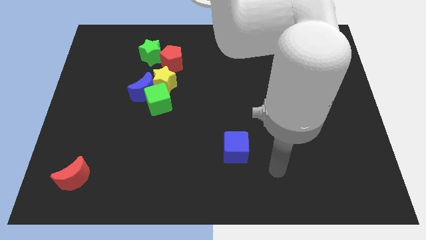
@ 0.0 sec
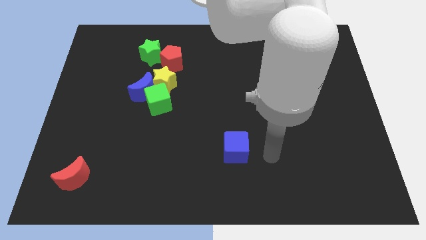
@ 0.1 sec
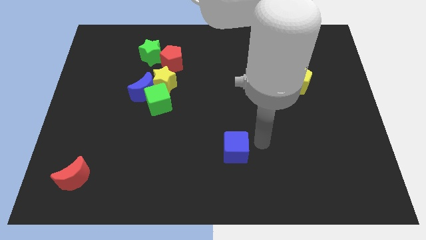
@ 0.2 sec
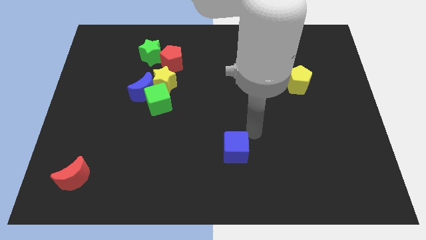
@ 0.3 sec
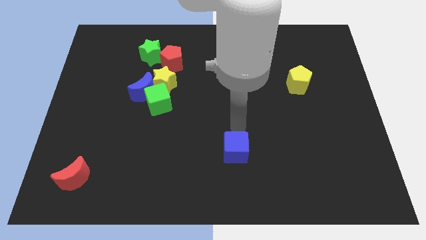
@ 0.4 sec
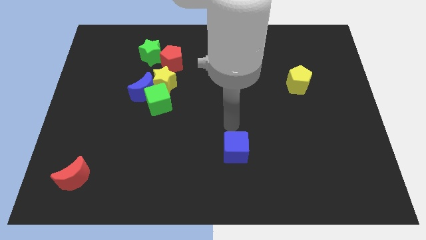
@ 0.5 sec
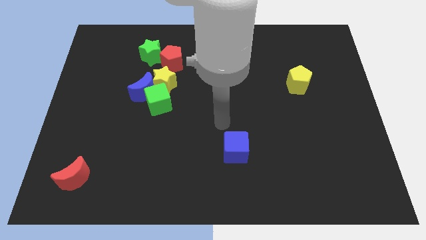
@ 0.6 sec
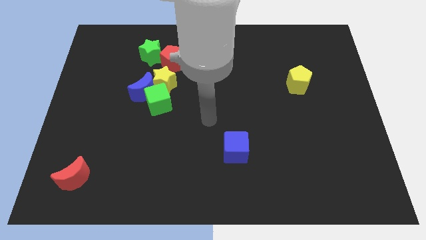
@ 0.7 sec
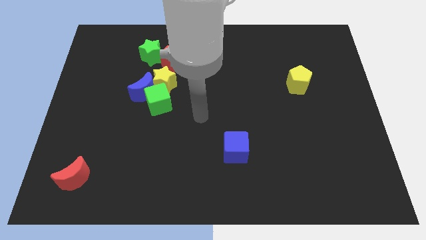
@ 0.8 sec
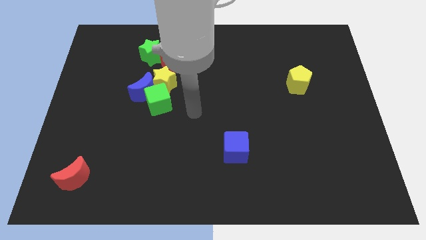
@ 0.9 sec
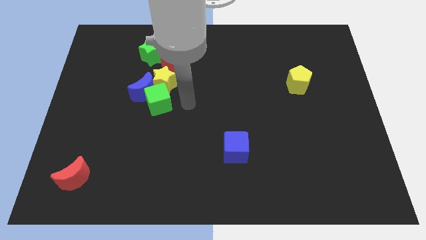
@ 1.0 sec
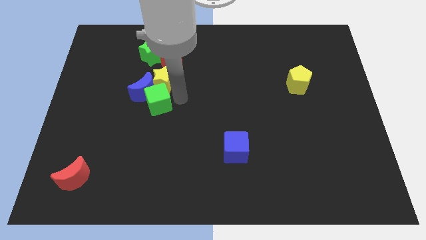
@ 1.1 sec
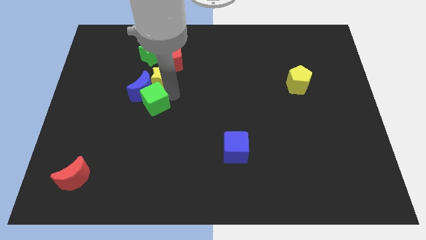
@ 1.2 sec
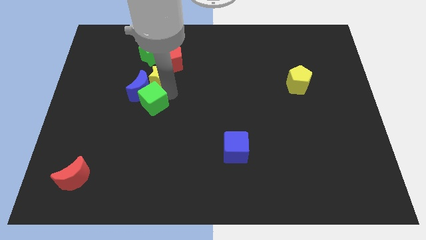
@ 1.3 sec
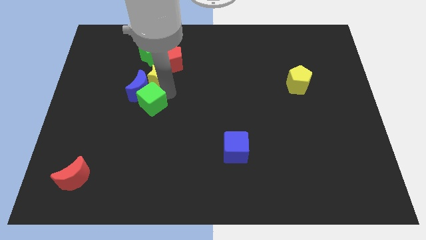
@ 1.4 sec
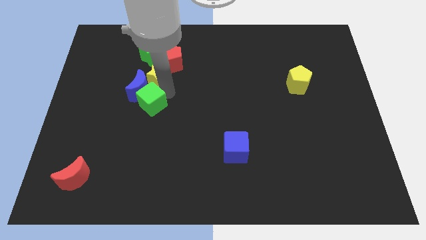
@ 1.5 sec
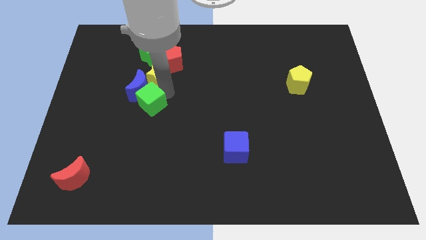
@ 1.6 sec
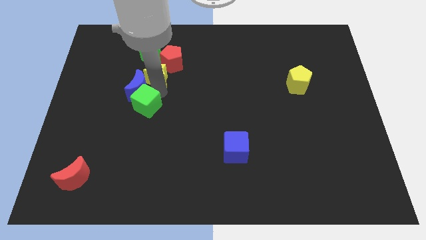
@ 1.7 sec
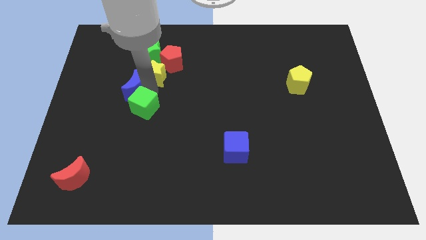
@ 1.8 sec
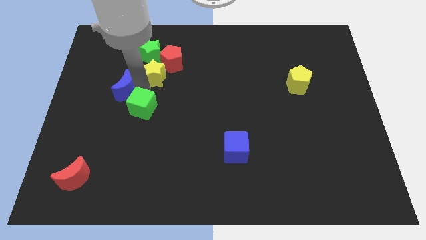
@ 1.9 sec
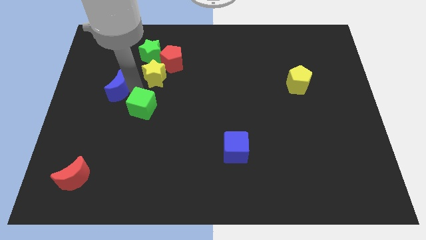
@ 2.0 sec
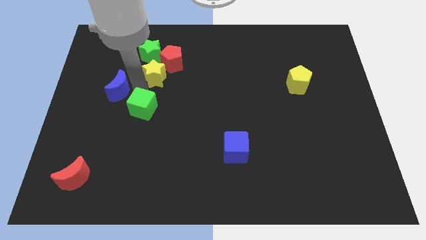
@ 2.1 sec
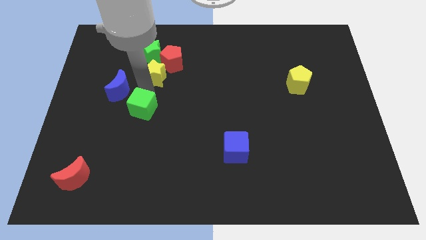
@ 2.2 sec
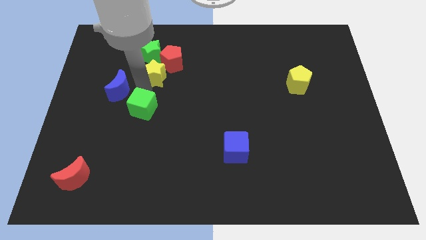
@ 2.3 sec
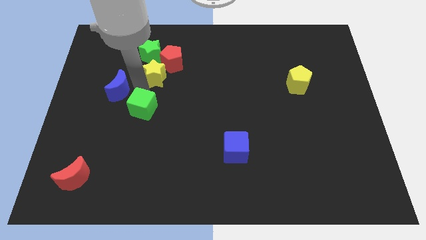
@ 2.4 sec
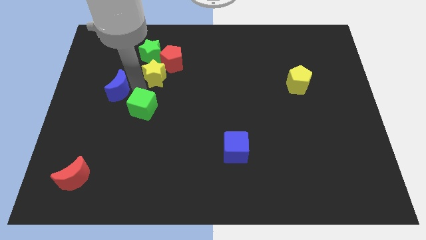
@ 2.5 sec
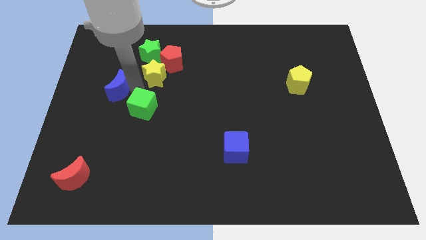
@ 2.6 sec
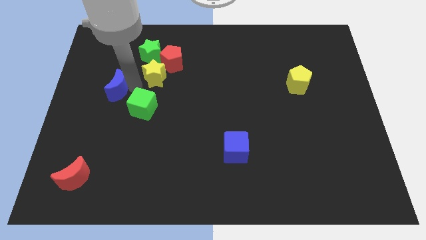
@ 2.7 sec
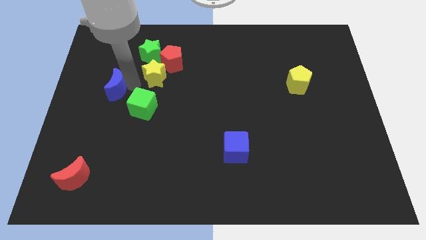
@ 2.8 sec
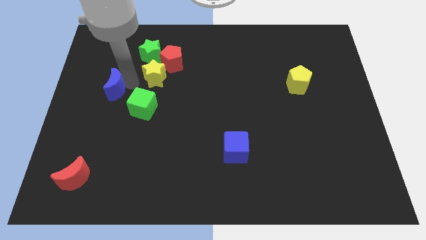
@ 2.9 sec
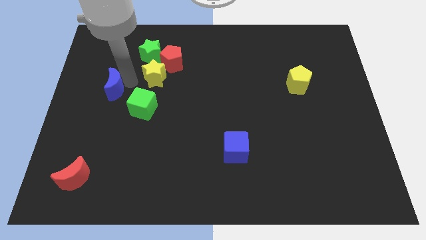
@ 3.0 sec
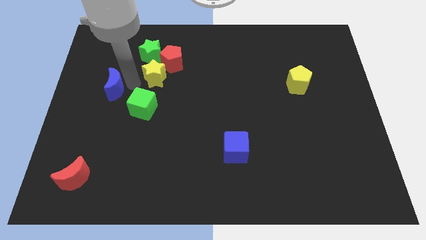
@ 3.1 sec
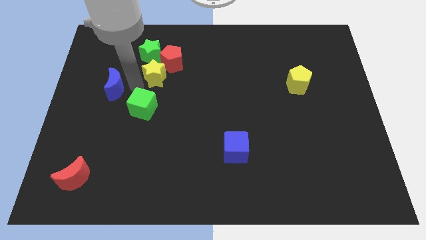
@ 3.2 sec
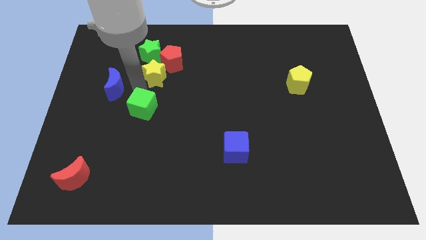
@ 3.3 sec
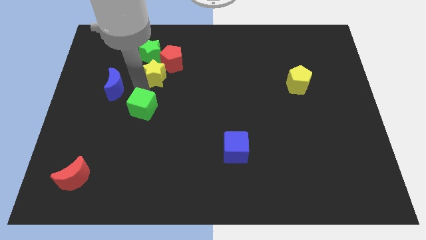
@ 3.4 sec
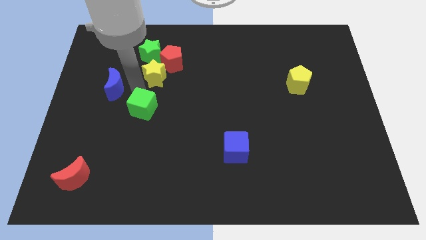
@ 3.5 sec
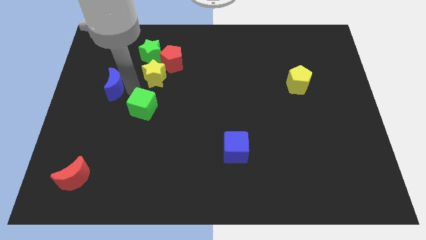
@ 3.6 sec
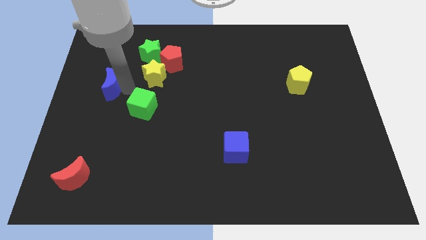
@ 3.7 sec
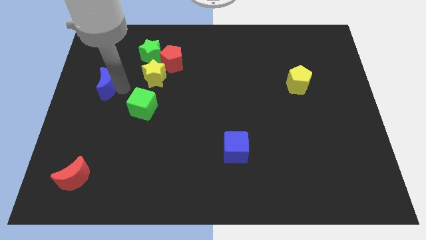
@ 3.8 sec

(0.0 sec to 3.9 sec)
pull the blue moon apart from the green cube and yellow star

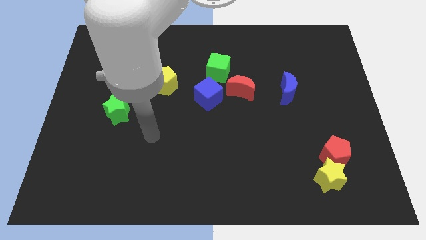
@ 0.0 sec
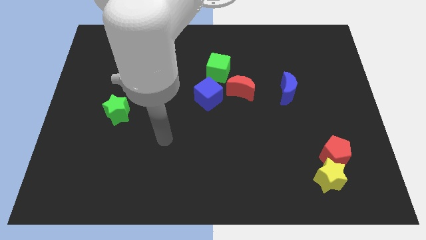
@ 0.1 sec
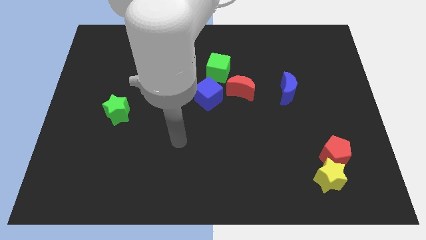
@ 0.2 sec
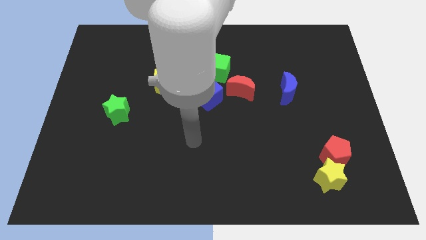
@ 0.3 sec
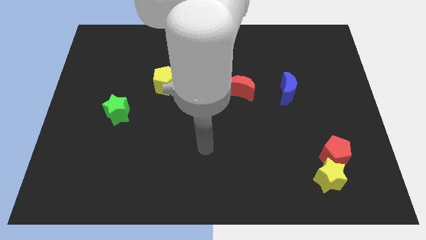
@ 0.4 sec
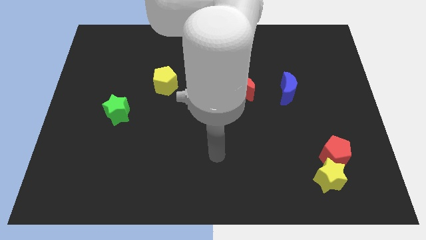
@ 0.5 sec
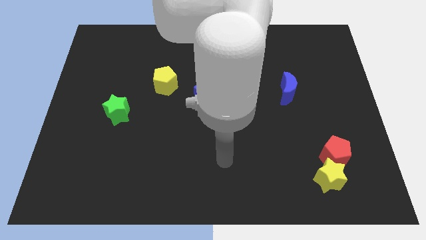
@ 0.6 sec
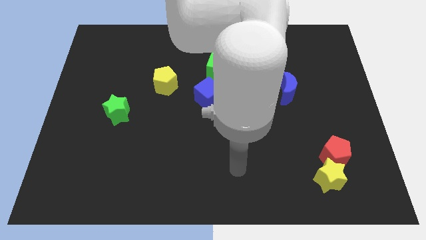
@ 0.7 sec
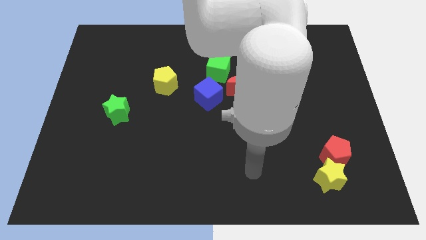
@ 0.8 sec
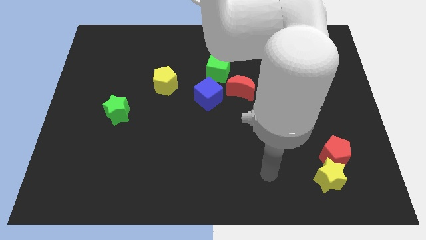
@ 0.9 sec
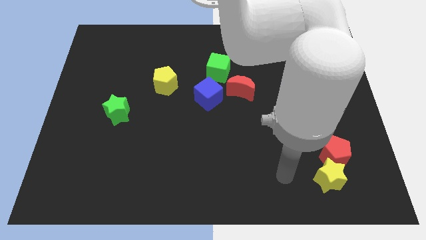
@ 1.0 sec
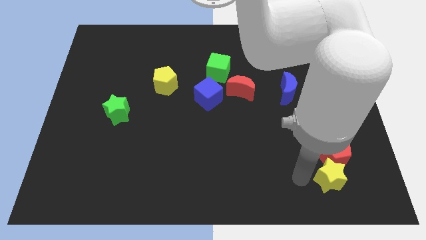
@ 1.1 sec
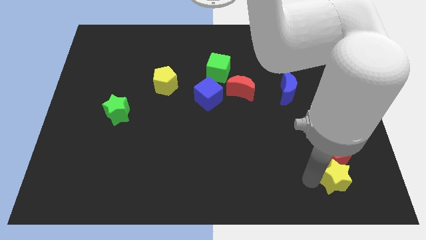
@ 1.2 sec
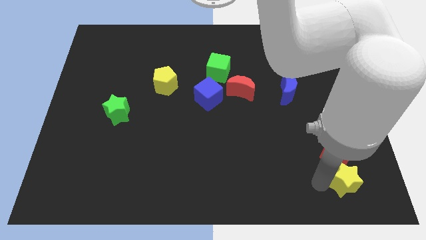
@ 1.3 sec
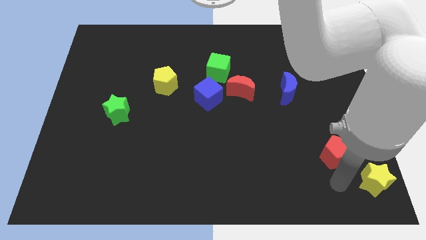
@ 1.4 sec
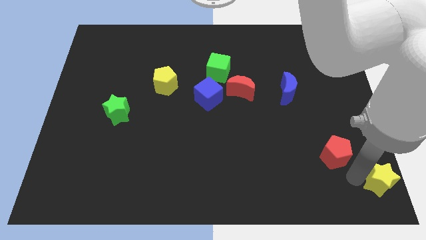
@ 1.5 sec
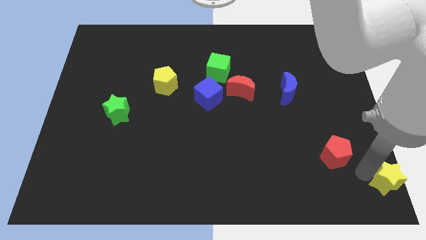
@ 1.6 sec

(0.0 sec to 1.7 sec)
separate the red pentagon from the yellow star

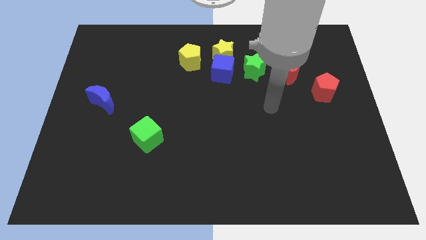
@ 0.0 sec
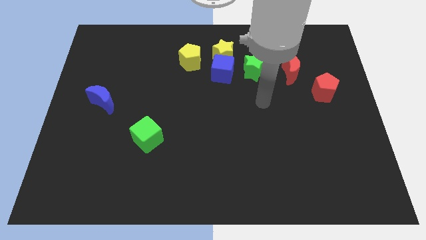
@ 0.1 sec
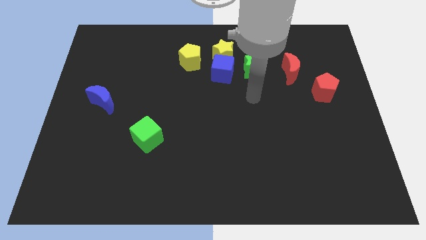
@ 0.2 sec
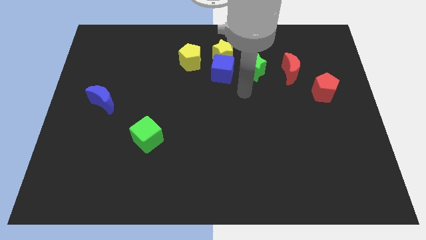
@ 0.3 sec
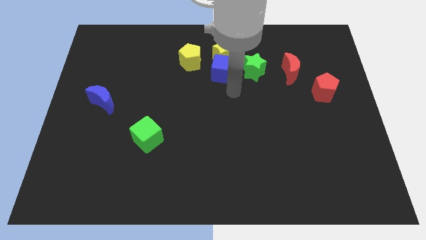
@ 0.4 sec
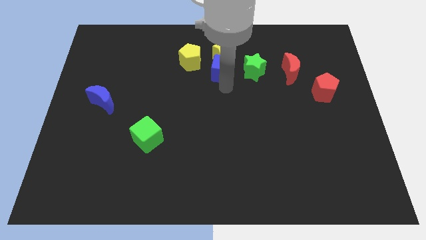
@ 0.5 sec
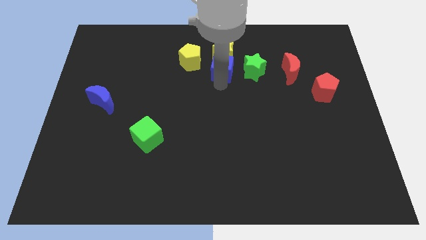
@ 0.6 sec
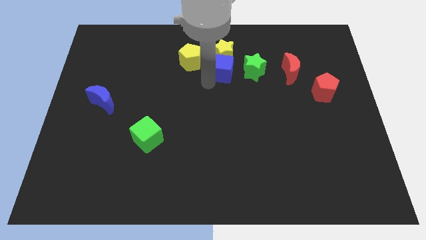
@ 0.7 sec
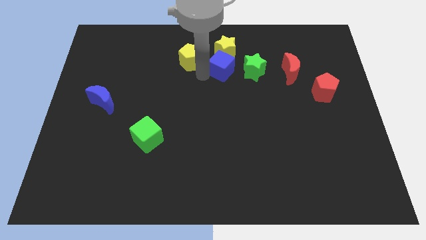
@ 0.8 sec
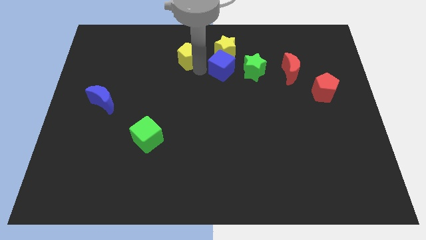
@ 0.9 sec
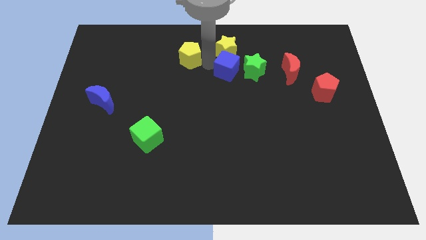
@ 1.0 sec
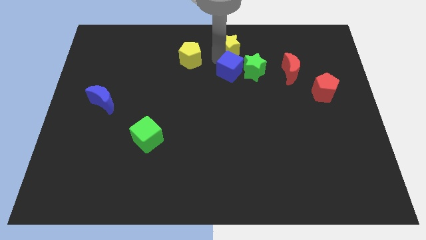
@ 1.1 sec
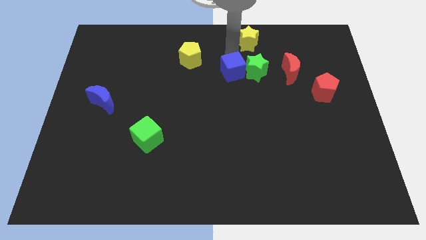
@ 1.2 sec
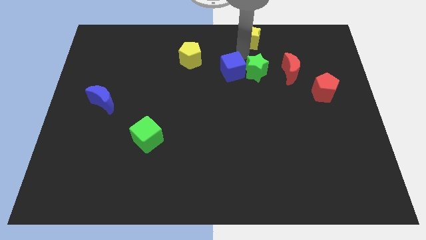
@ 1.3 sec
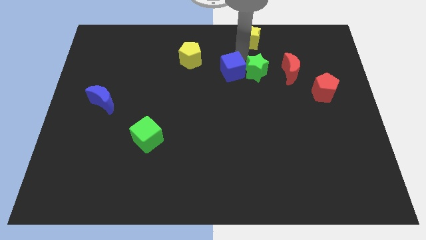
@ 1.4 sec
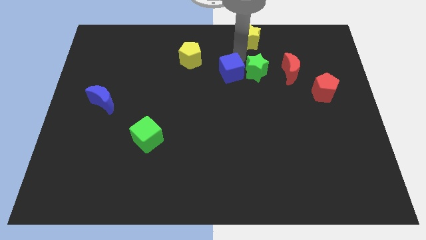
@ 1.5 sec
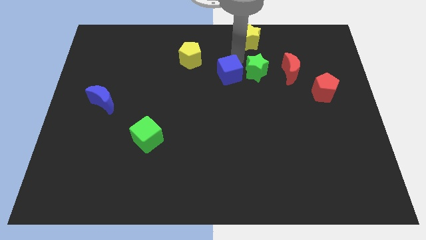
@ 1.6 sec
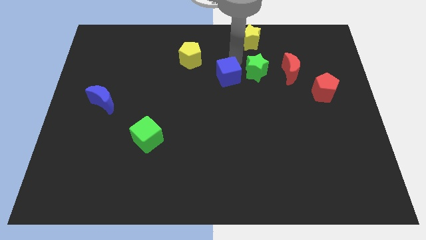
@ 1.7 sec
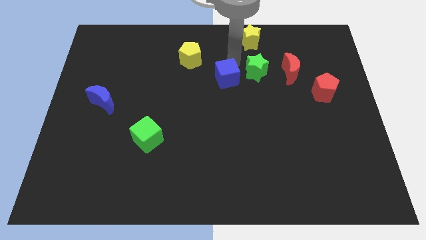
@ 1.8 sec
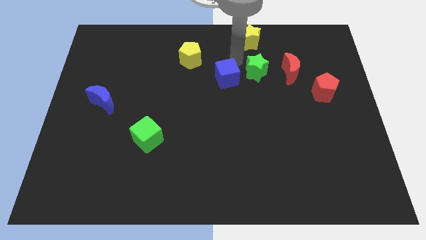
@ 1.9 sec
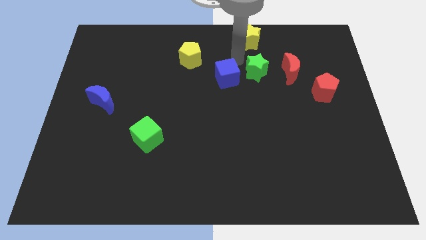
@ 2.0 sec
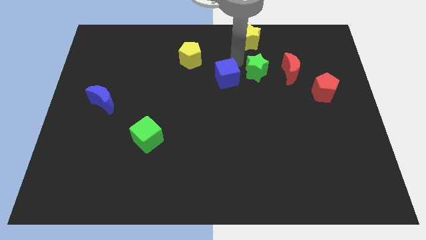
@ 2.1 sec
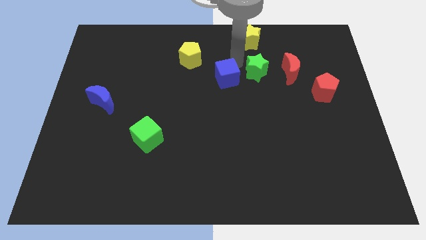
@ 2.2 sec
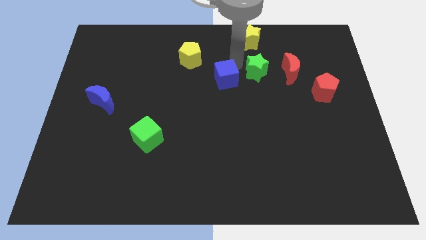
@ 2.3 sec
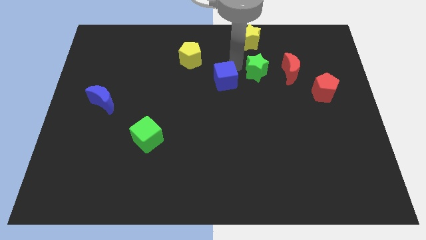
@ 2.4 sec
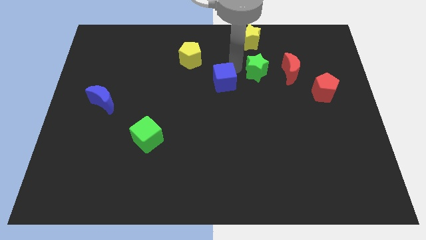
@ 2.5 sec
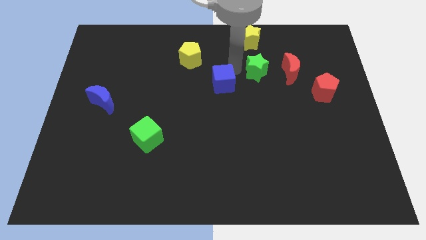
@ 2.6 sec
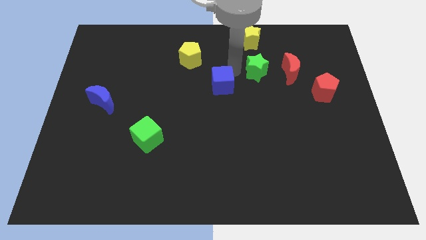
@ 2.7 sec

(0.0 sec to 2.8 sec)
pull the blue cube apart from the group

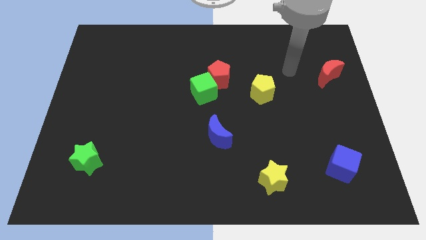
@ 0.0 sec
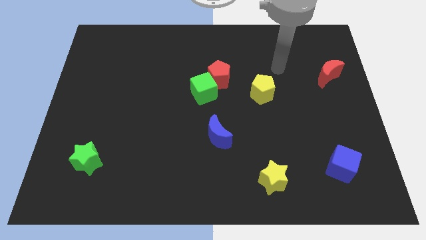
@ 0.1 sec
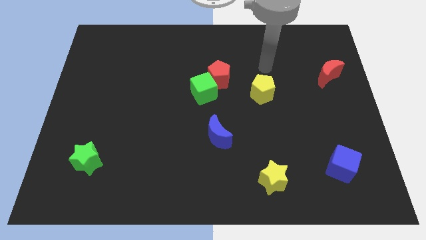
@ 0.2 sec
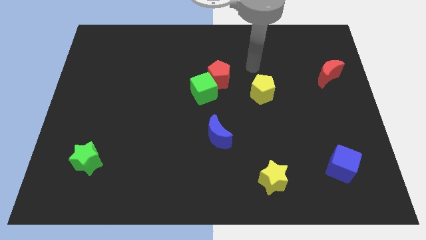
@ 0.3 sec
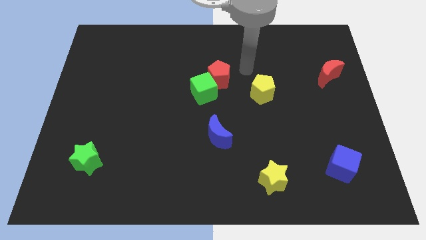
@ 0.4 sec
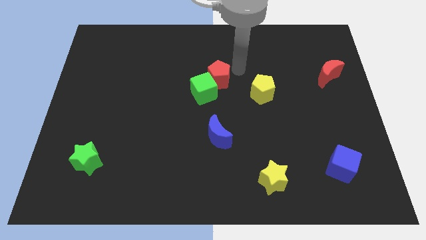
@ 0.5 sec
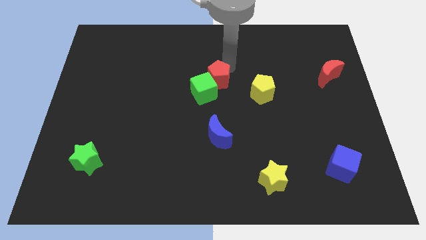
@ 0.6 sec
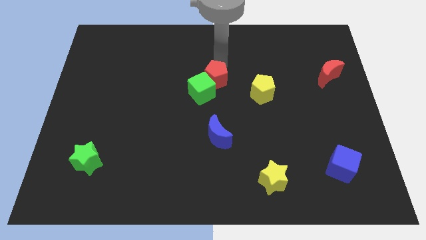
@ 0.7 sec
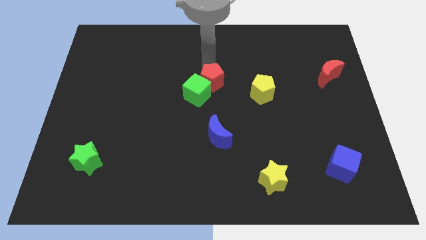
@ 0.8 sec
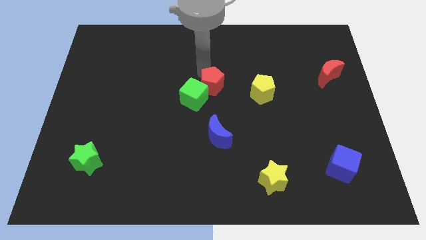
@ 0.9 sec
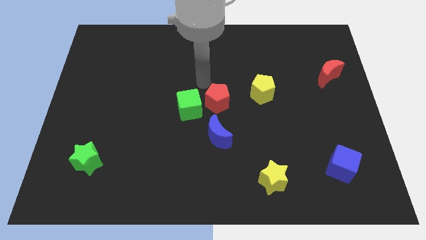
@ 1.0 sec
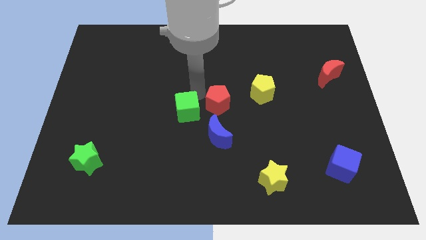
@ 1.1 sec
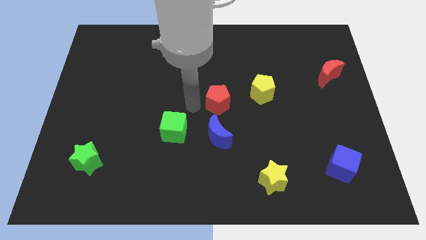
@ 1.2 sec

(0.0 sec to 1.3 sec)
separate the red pentagon from the green cube